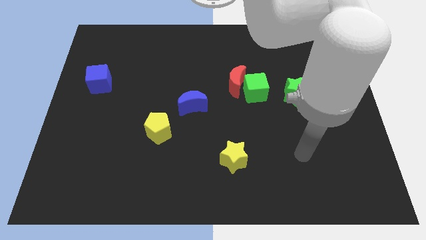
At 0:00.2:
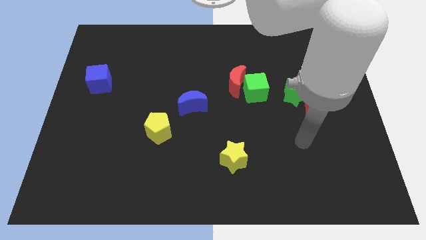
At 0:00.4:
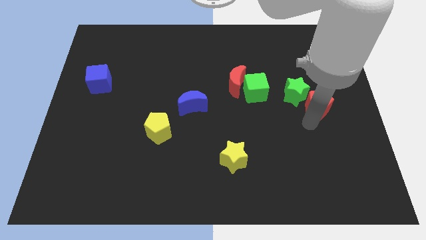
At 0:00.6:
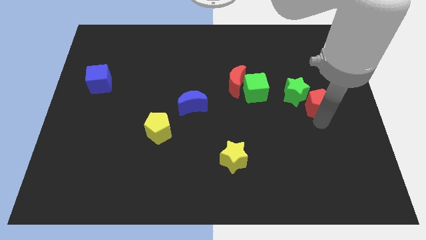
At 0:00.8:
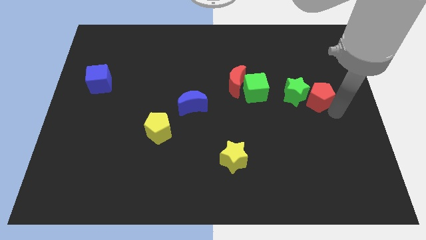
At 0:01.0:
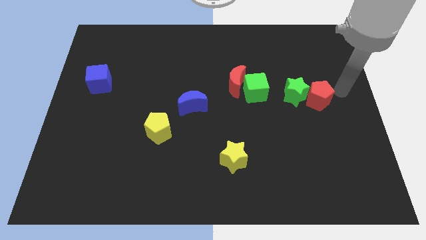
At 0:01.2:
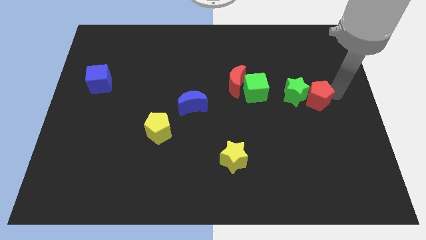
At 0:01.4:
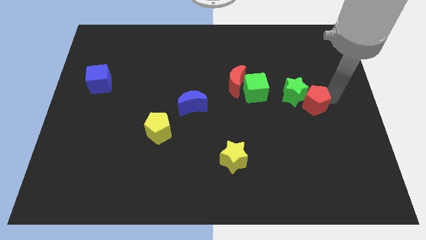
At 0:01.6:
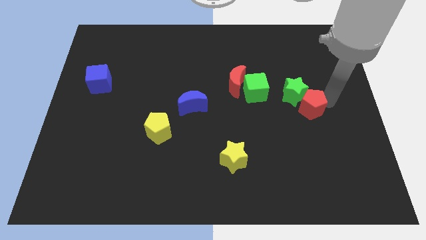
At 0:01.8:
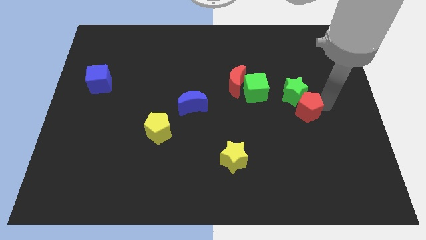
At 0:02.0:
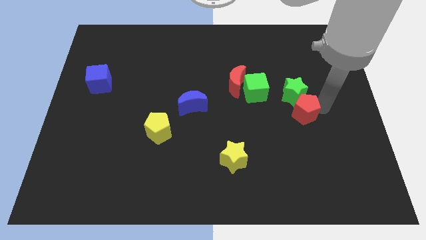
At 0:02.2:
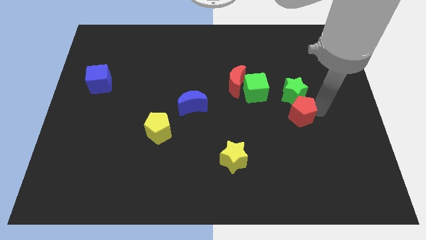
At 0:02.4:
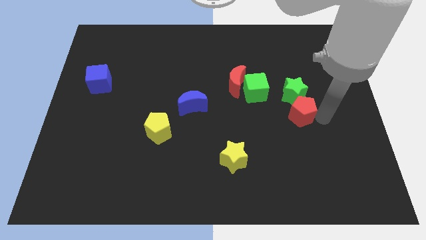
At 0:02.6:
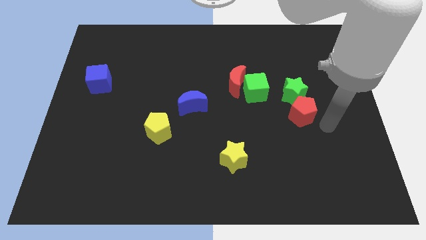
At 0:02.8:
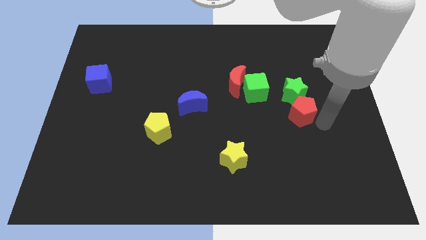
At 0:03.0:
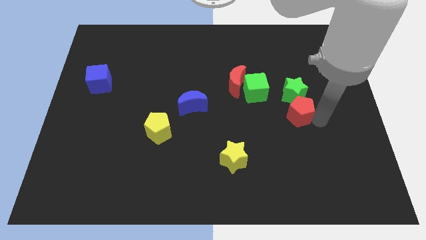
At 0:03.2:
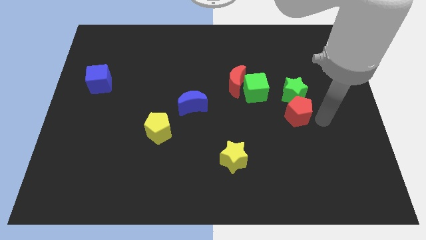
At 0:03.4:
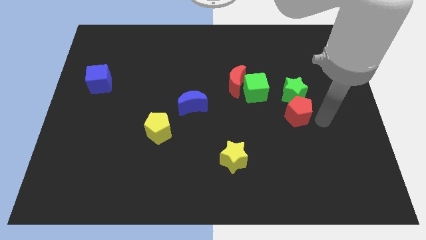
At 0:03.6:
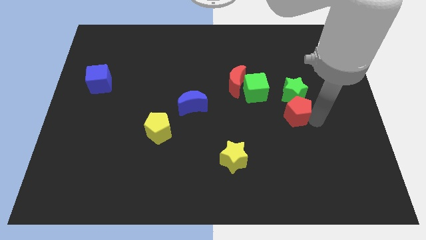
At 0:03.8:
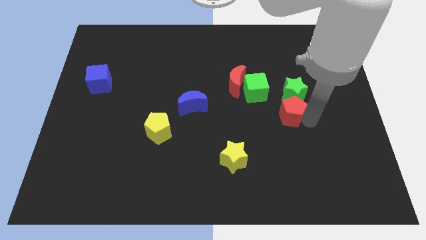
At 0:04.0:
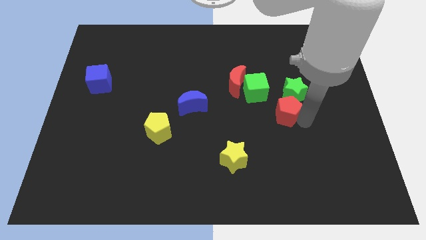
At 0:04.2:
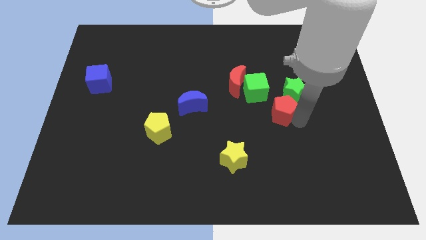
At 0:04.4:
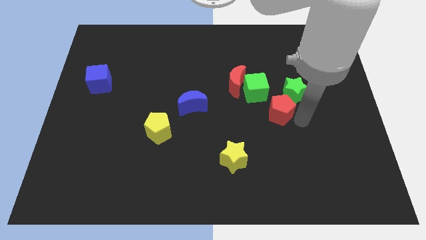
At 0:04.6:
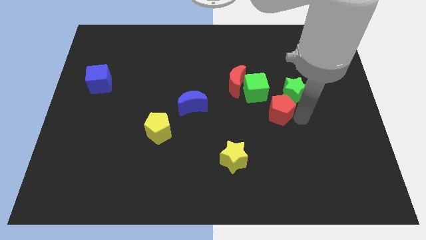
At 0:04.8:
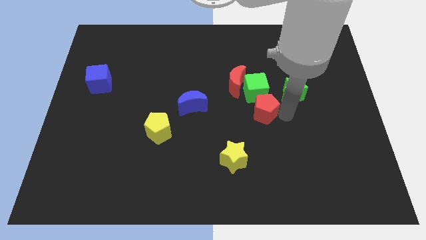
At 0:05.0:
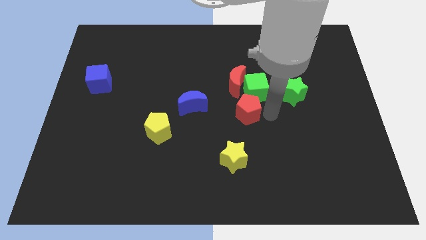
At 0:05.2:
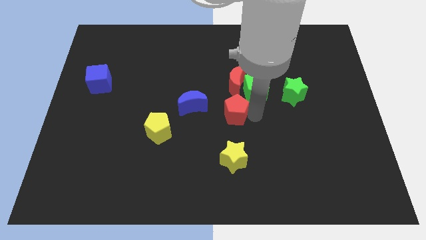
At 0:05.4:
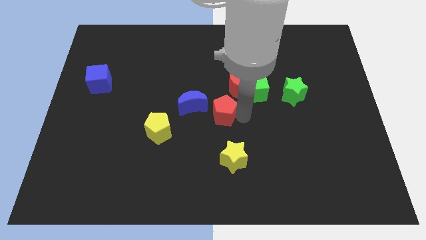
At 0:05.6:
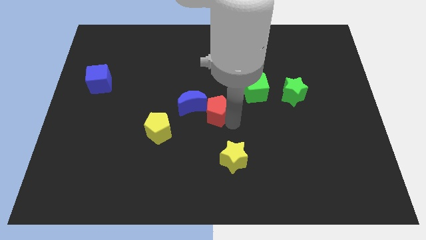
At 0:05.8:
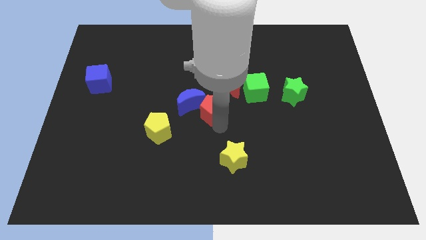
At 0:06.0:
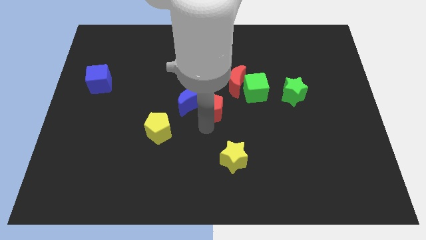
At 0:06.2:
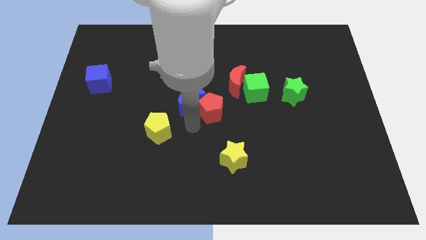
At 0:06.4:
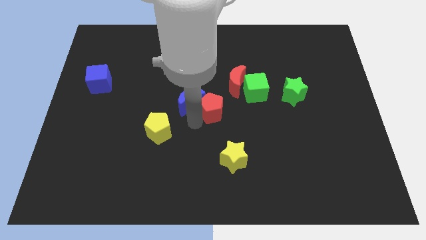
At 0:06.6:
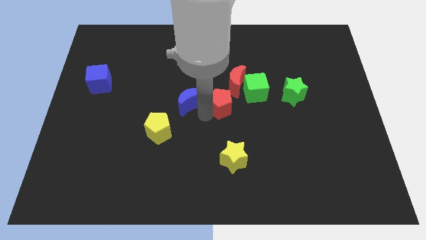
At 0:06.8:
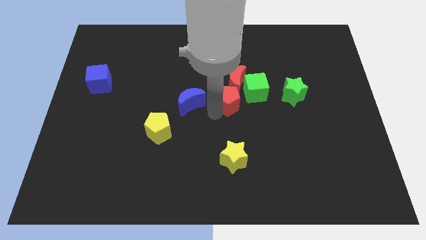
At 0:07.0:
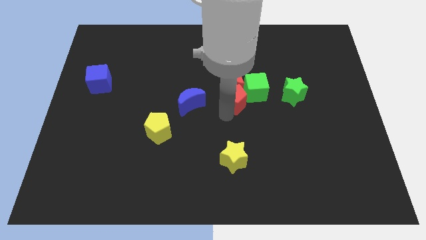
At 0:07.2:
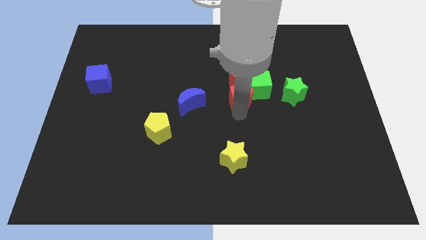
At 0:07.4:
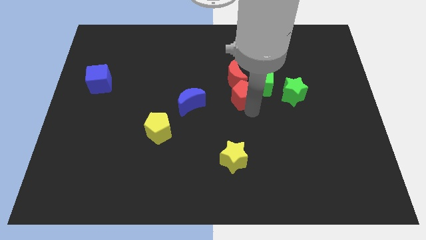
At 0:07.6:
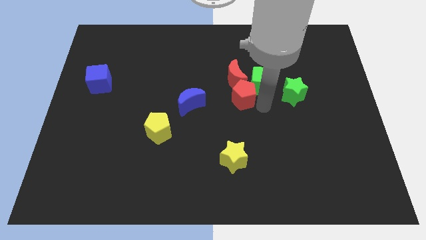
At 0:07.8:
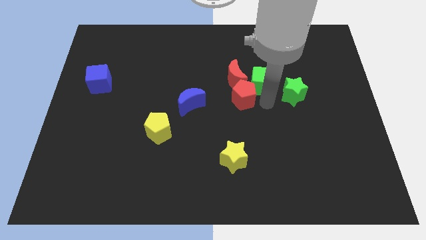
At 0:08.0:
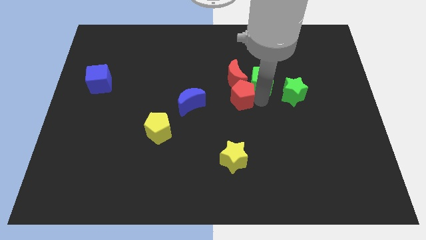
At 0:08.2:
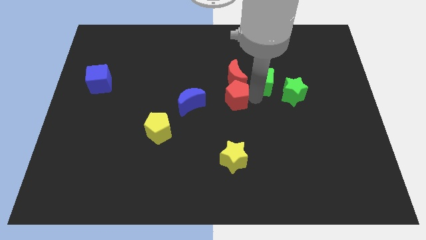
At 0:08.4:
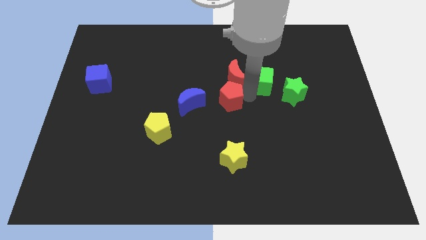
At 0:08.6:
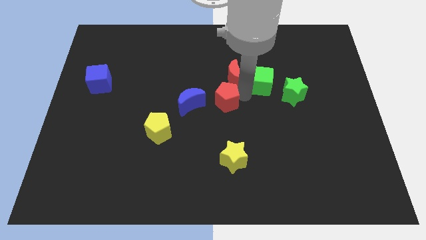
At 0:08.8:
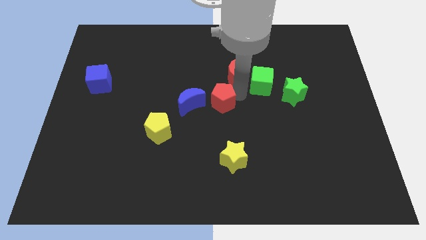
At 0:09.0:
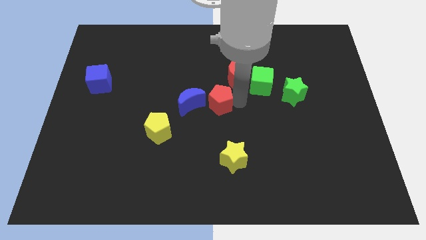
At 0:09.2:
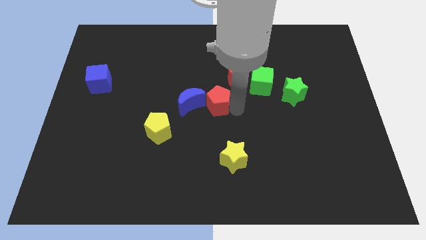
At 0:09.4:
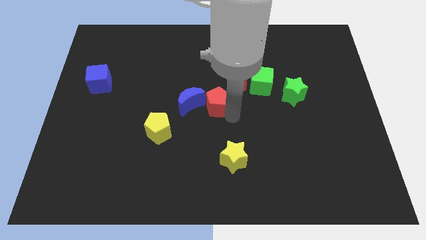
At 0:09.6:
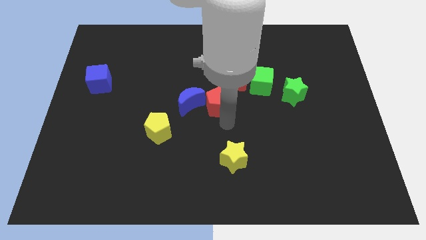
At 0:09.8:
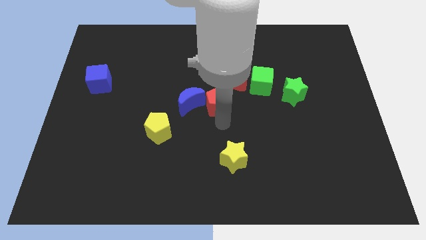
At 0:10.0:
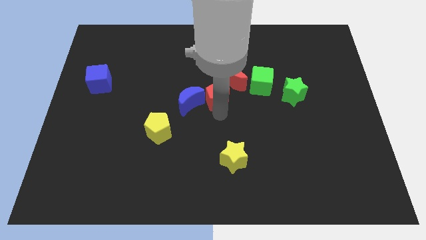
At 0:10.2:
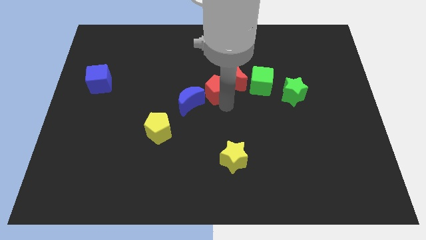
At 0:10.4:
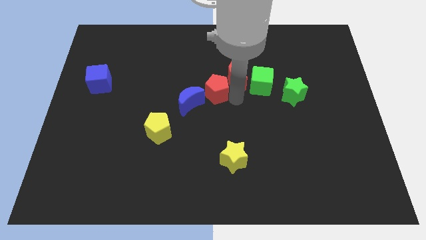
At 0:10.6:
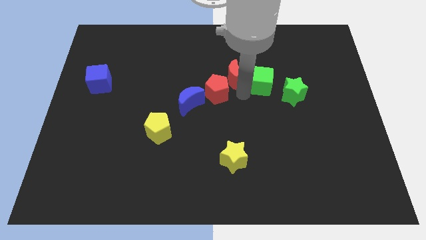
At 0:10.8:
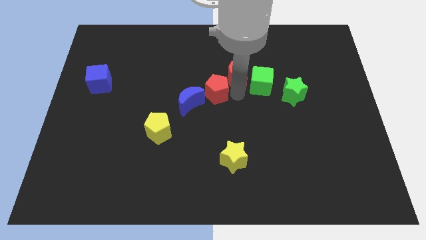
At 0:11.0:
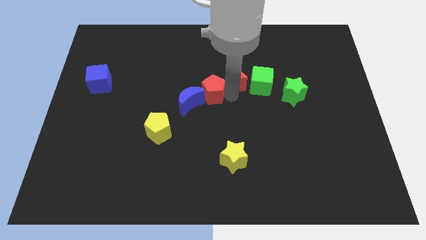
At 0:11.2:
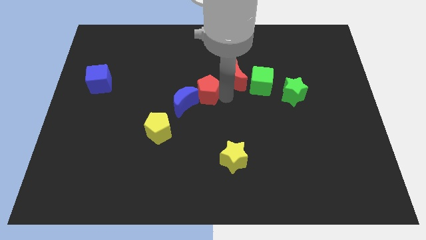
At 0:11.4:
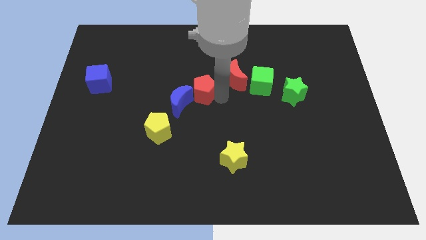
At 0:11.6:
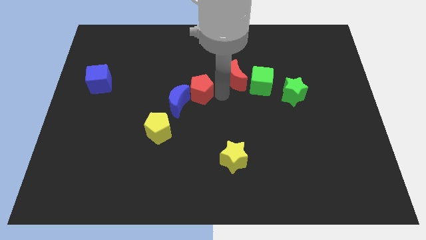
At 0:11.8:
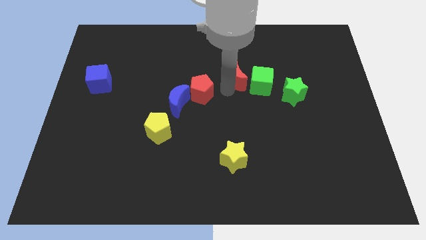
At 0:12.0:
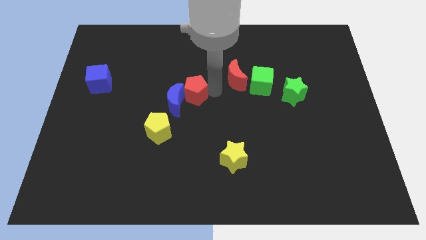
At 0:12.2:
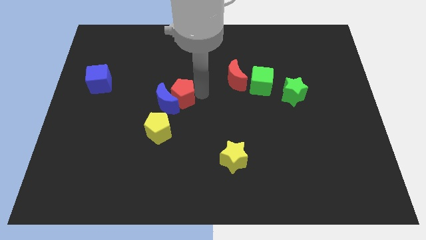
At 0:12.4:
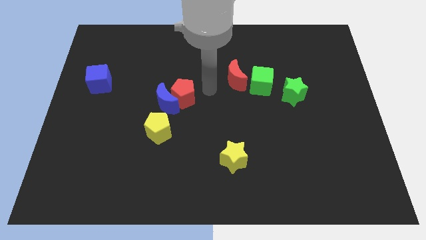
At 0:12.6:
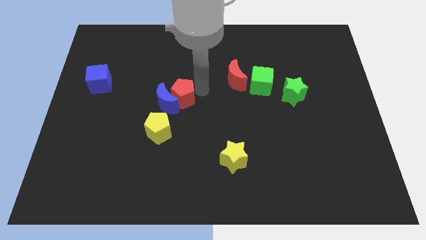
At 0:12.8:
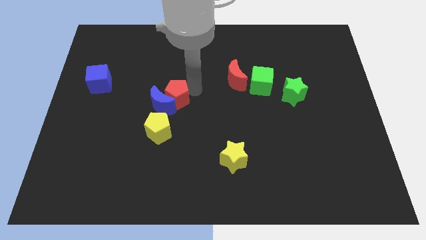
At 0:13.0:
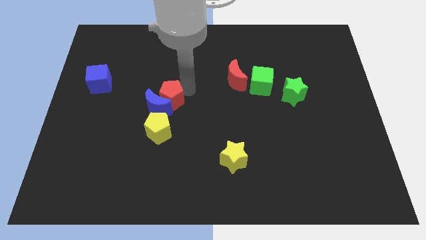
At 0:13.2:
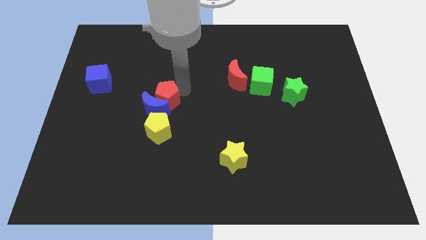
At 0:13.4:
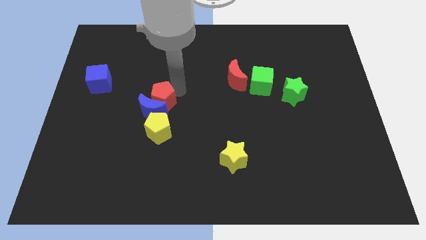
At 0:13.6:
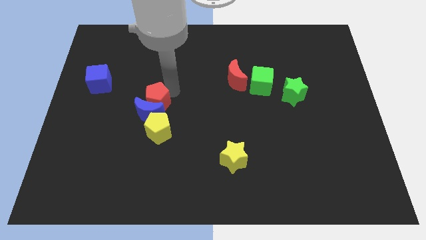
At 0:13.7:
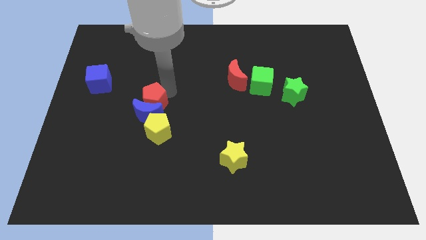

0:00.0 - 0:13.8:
push the red pentagon to the top left side of the yellow pentagon

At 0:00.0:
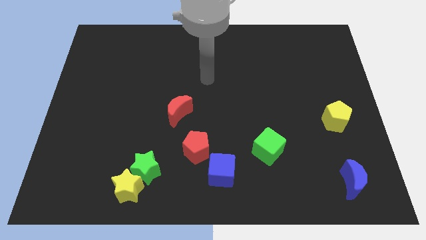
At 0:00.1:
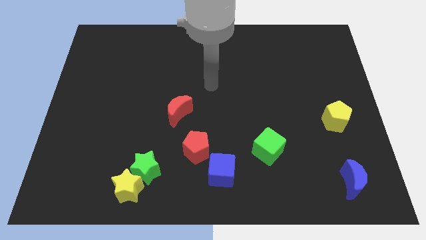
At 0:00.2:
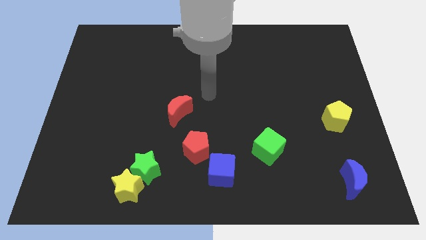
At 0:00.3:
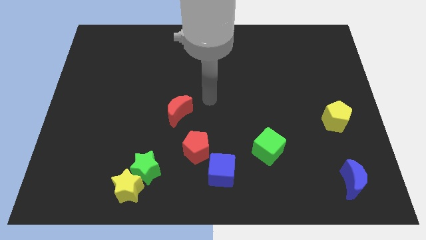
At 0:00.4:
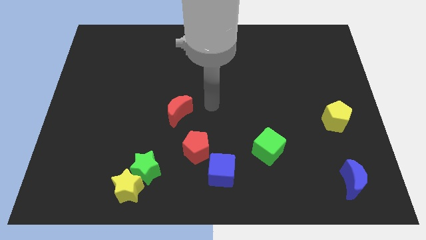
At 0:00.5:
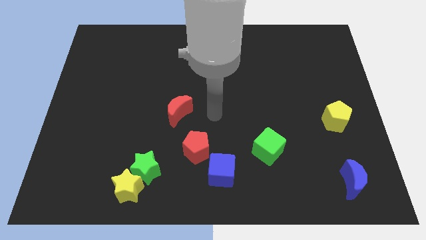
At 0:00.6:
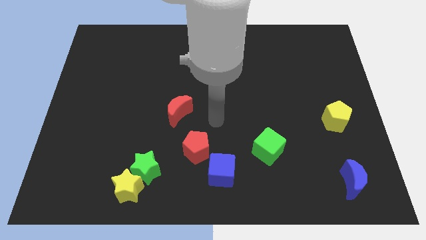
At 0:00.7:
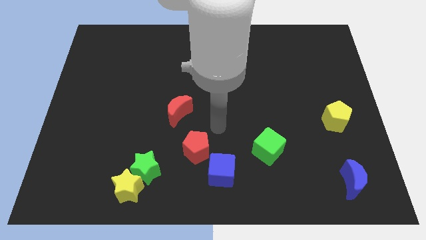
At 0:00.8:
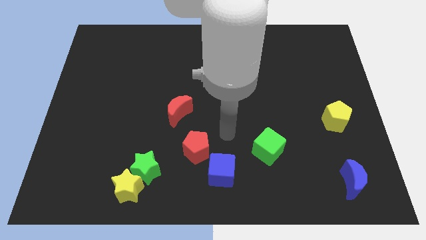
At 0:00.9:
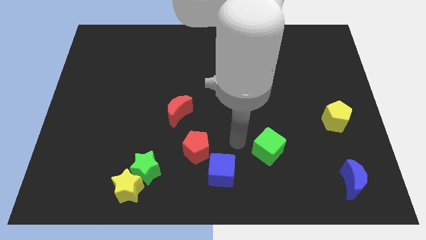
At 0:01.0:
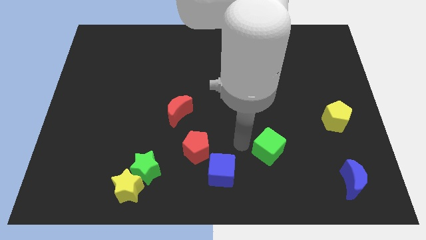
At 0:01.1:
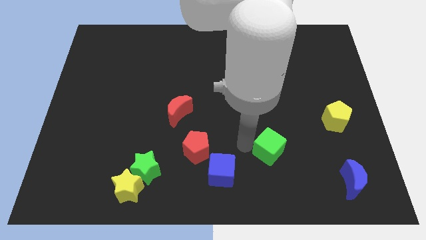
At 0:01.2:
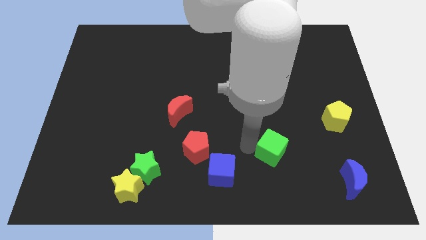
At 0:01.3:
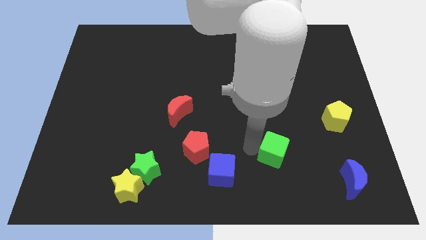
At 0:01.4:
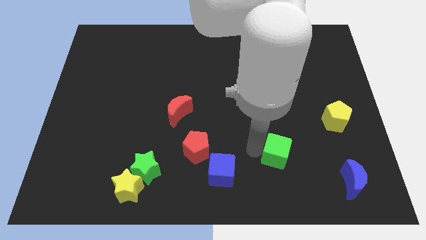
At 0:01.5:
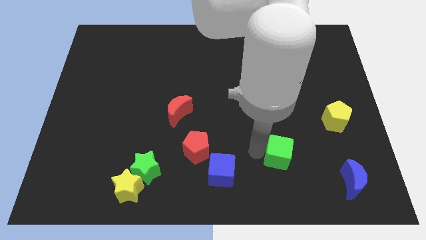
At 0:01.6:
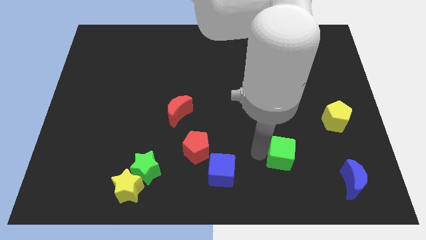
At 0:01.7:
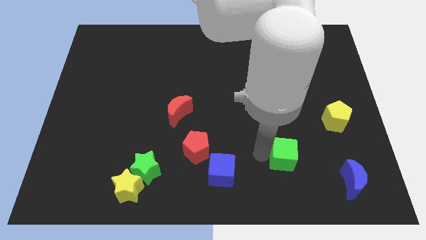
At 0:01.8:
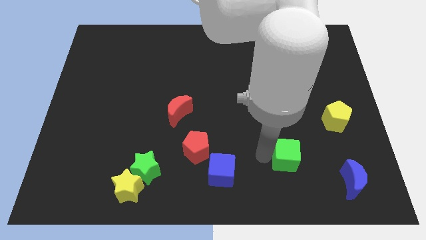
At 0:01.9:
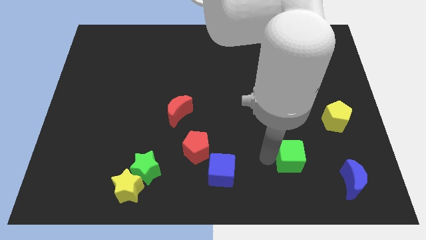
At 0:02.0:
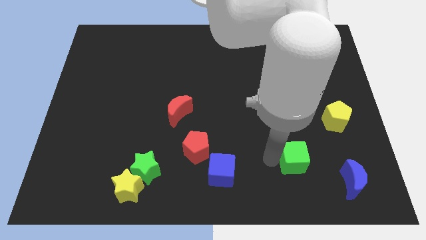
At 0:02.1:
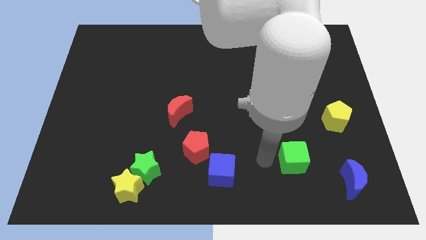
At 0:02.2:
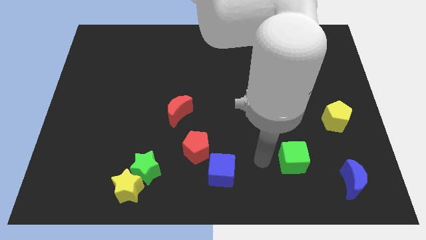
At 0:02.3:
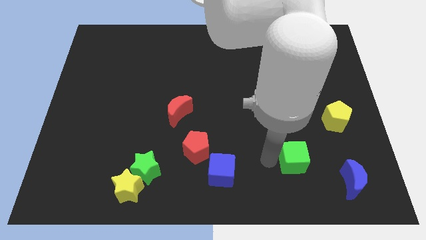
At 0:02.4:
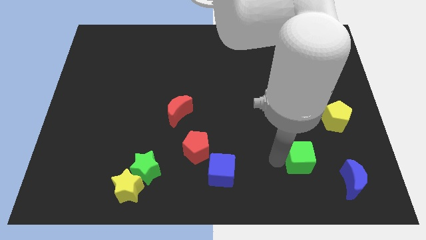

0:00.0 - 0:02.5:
slide the green cube to the top left of the blue moon
